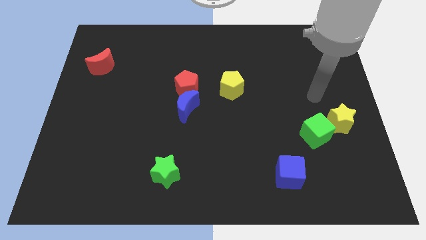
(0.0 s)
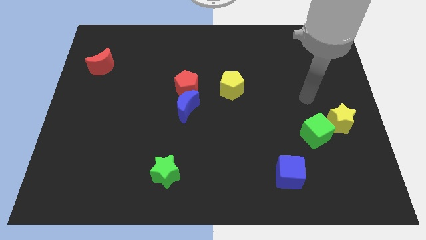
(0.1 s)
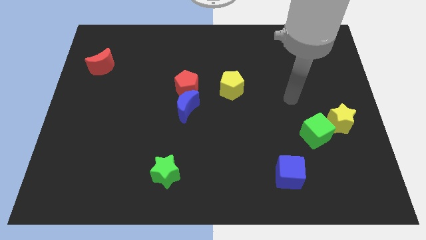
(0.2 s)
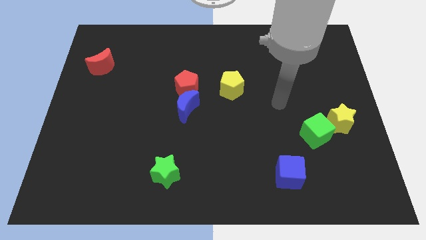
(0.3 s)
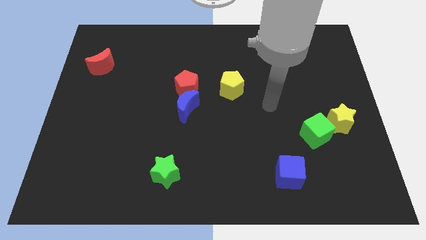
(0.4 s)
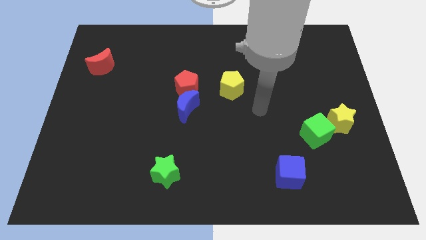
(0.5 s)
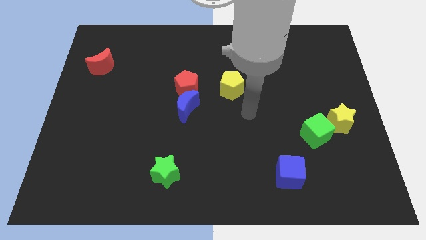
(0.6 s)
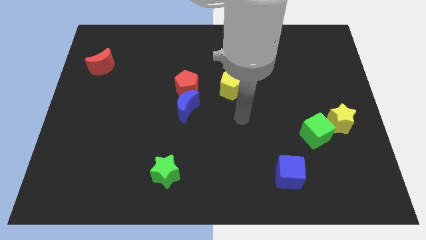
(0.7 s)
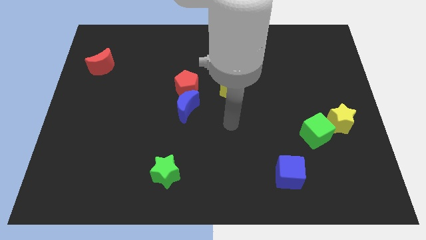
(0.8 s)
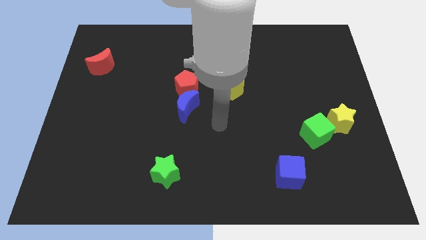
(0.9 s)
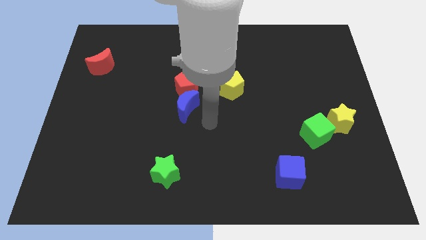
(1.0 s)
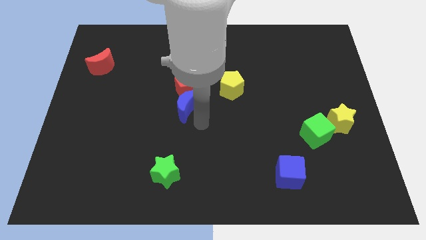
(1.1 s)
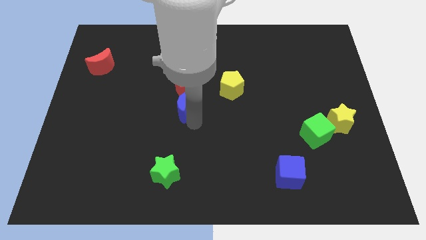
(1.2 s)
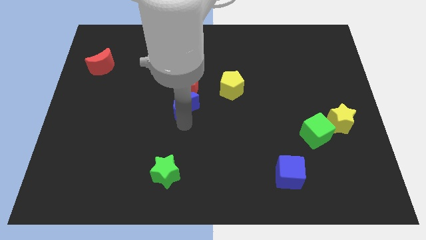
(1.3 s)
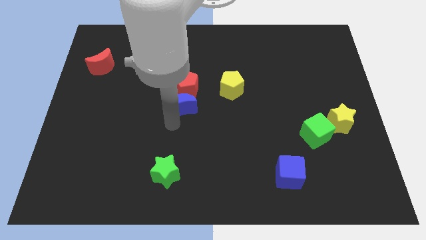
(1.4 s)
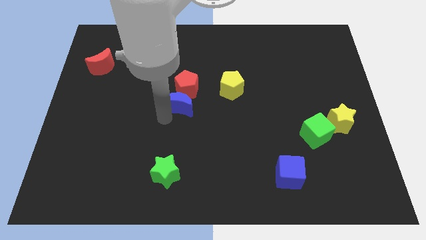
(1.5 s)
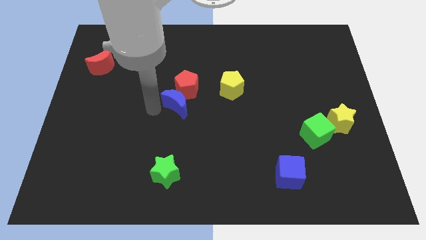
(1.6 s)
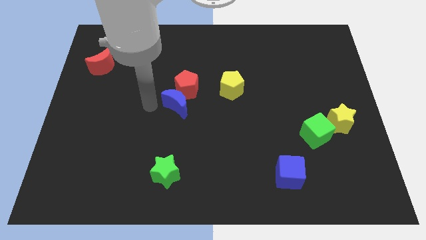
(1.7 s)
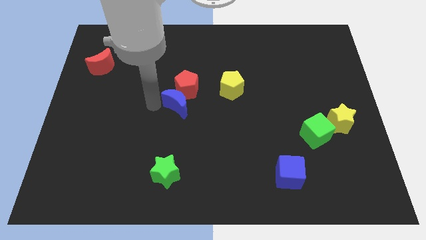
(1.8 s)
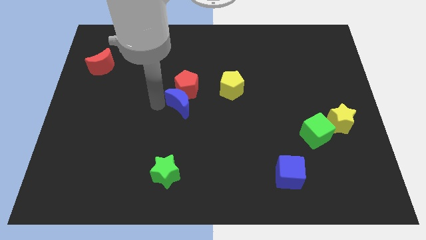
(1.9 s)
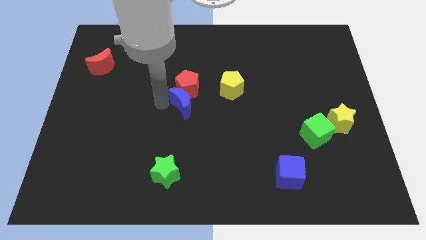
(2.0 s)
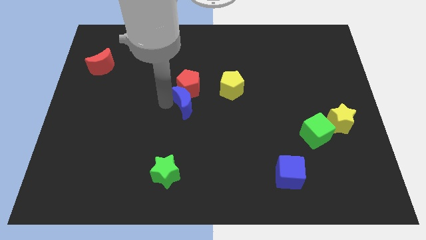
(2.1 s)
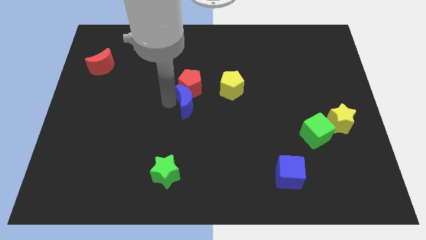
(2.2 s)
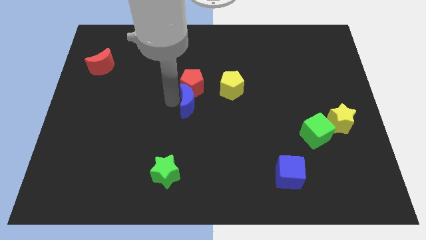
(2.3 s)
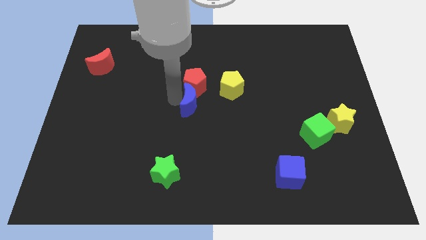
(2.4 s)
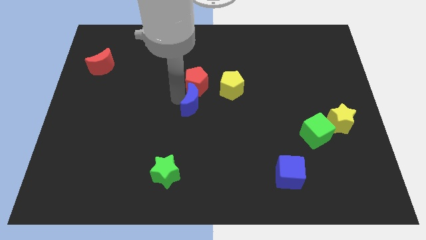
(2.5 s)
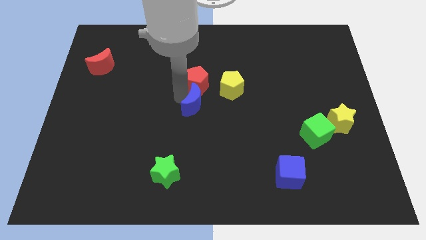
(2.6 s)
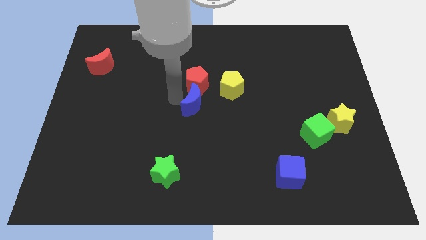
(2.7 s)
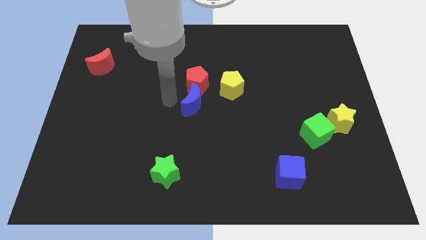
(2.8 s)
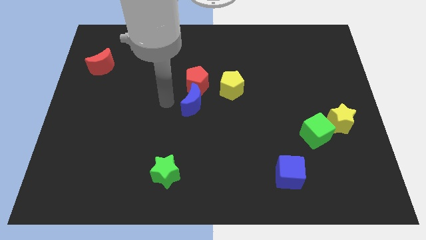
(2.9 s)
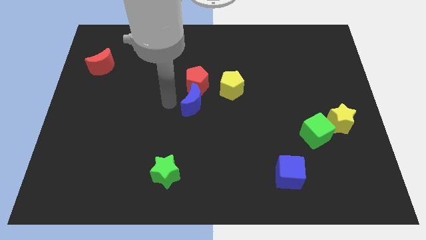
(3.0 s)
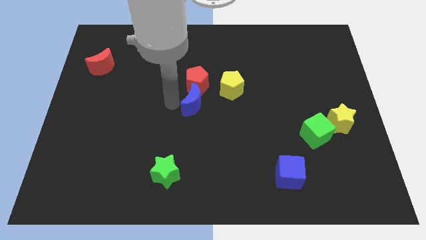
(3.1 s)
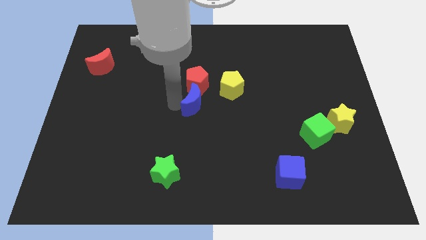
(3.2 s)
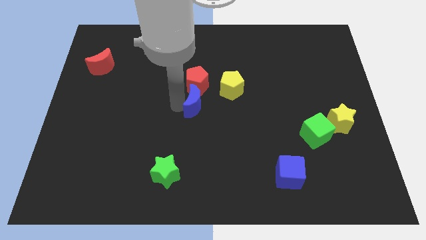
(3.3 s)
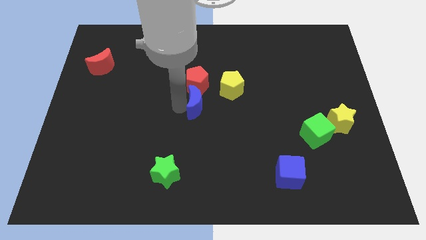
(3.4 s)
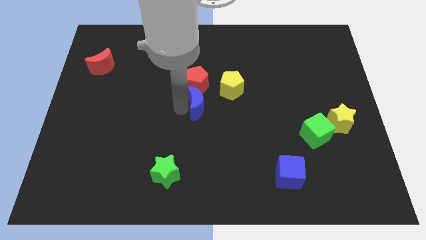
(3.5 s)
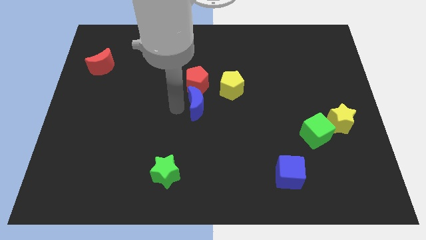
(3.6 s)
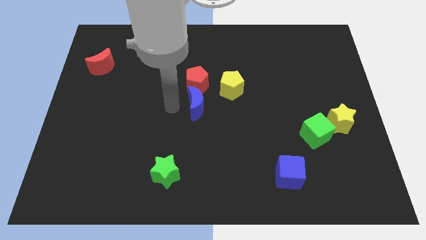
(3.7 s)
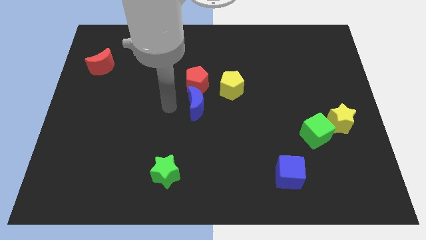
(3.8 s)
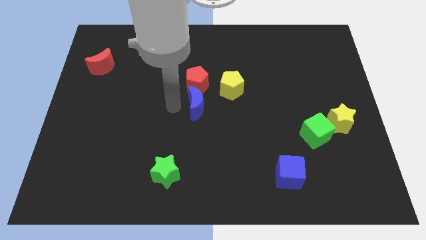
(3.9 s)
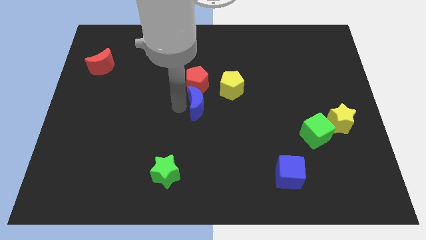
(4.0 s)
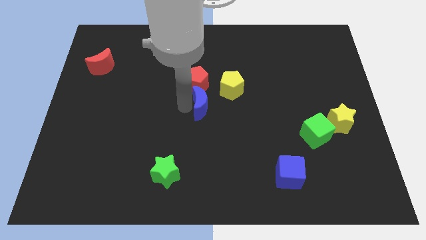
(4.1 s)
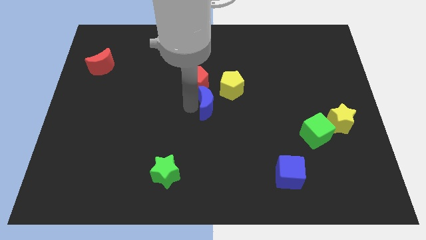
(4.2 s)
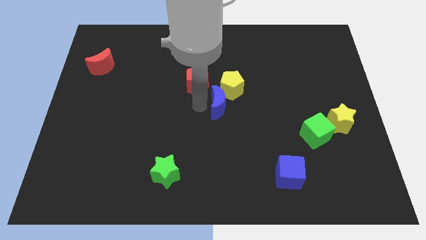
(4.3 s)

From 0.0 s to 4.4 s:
slightly slide the blue moon to the right

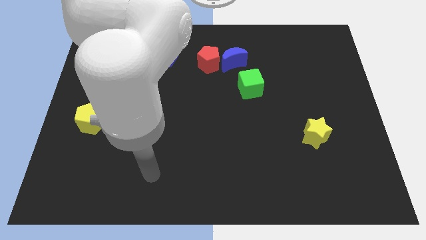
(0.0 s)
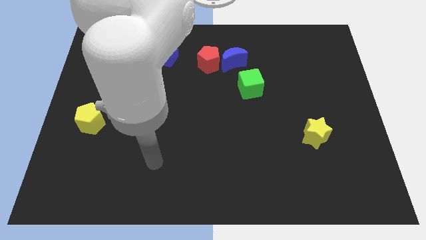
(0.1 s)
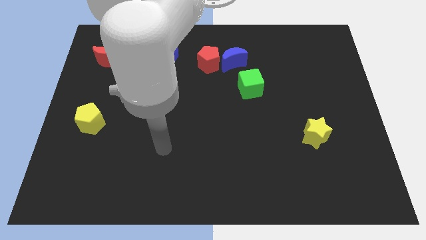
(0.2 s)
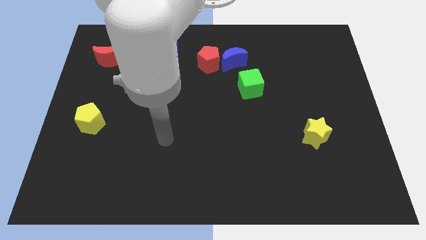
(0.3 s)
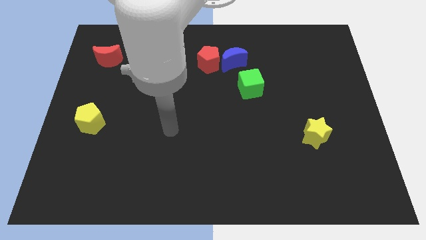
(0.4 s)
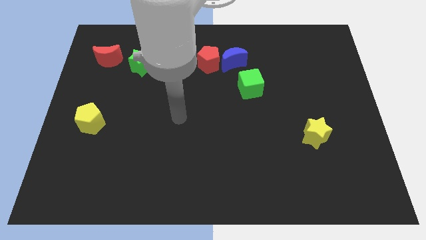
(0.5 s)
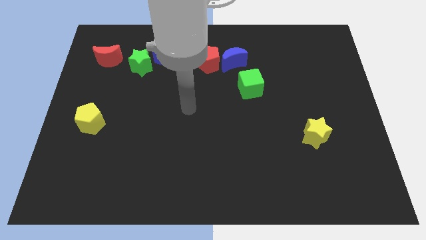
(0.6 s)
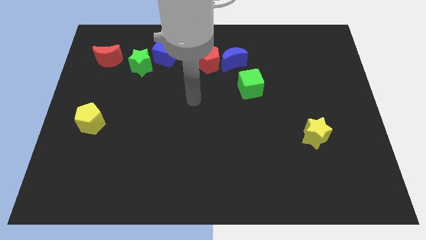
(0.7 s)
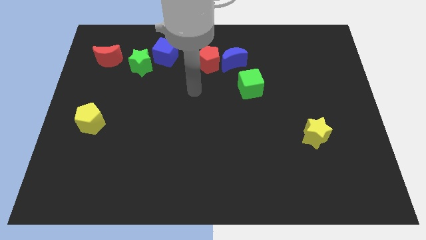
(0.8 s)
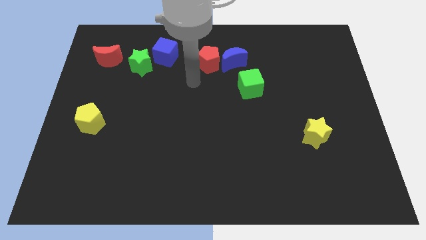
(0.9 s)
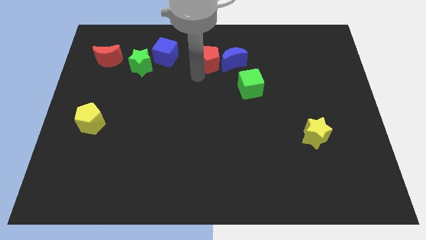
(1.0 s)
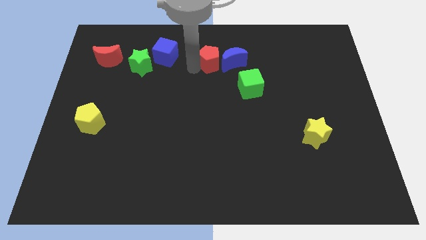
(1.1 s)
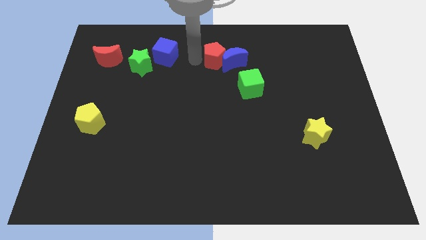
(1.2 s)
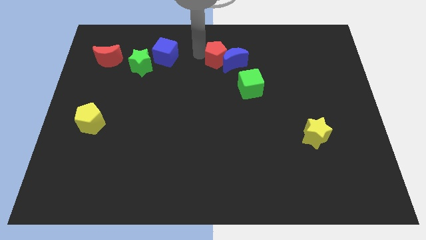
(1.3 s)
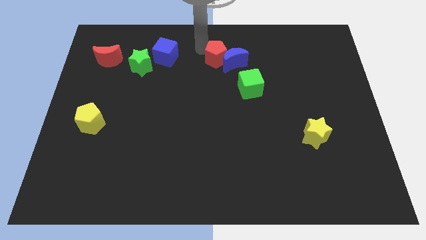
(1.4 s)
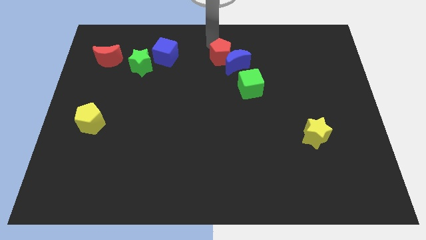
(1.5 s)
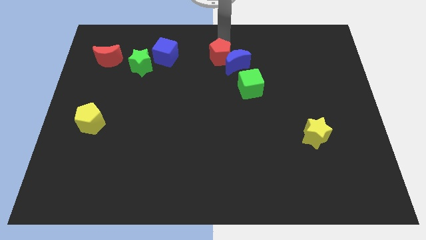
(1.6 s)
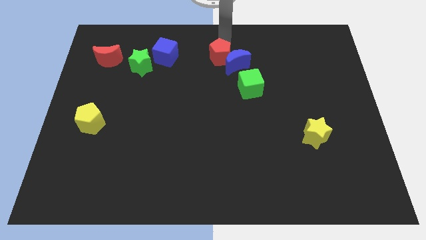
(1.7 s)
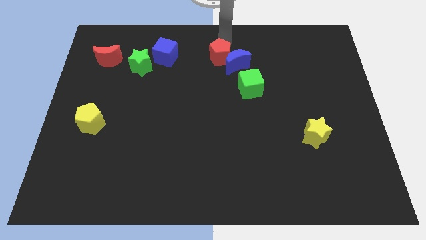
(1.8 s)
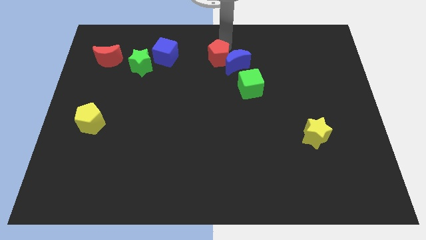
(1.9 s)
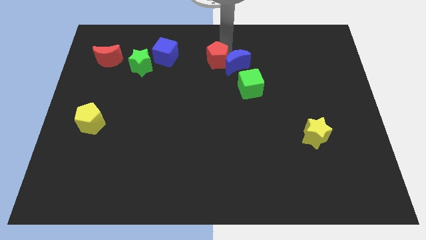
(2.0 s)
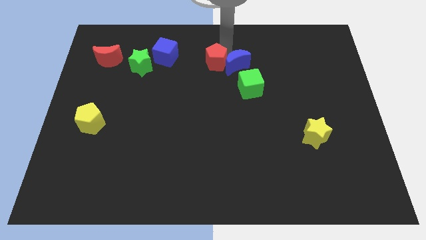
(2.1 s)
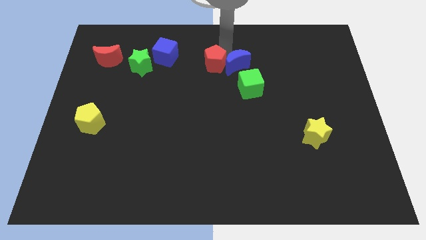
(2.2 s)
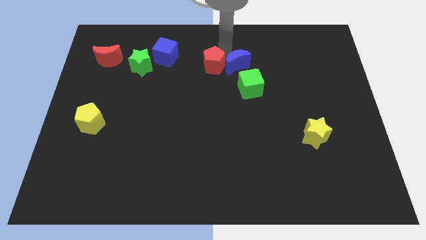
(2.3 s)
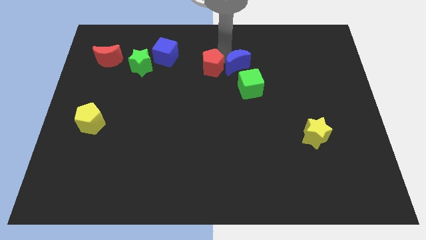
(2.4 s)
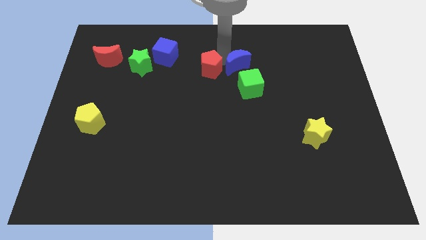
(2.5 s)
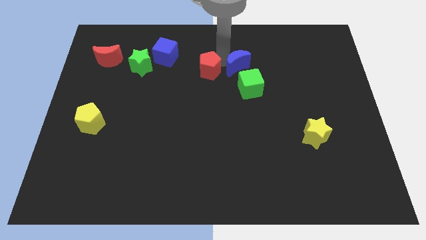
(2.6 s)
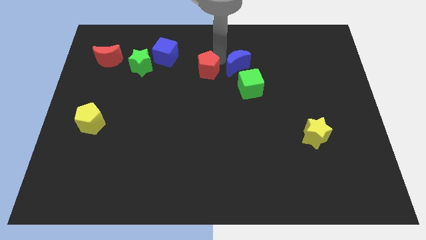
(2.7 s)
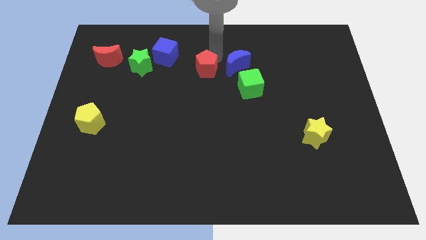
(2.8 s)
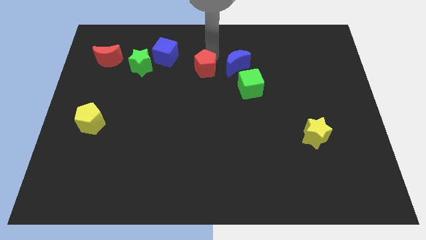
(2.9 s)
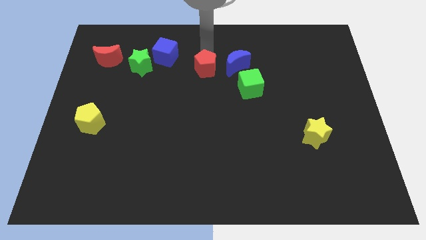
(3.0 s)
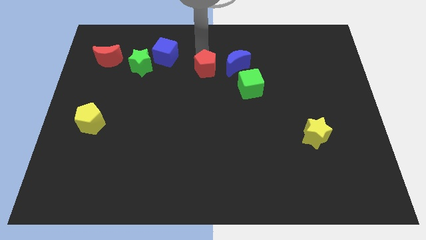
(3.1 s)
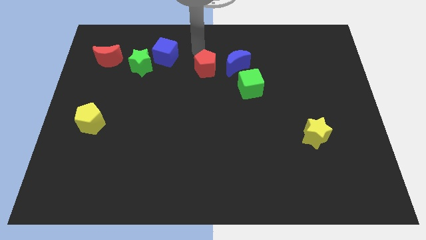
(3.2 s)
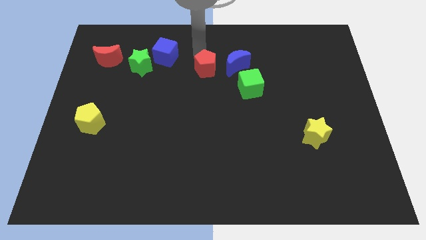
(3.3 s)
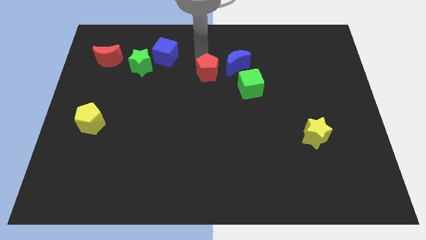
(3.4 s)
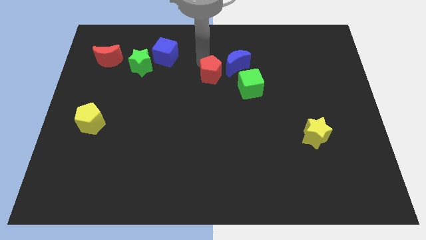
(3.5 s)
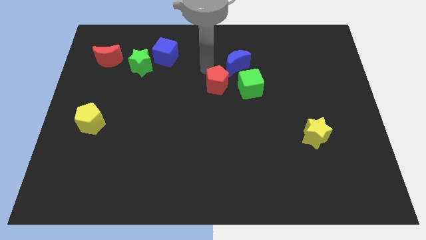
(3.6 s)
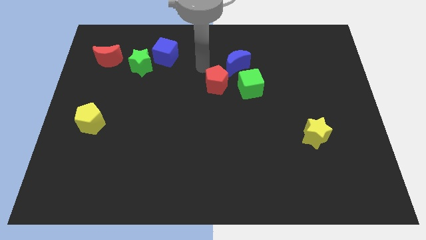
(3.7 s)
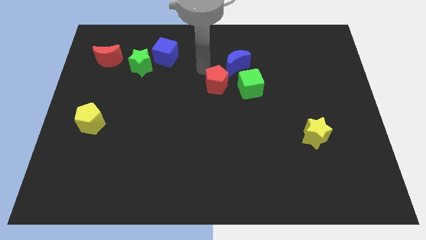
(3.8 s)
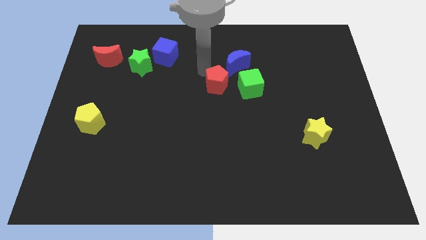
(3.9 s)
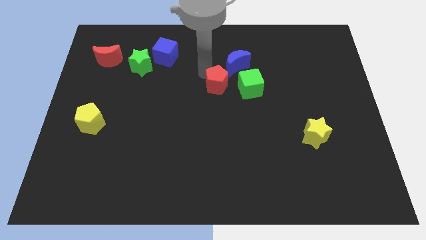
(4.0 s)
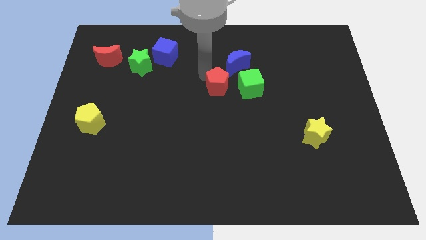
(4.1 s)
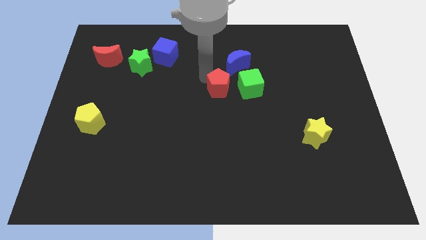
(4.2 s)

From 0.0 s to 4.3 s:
push the red pentagon down and right diagonally a little bit
